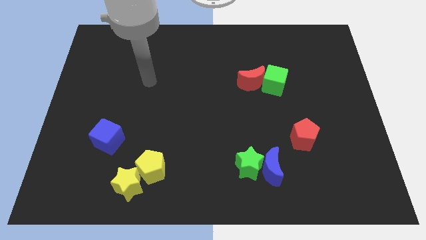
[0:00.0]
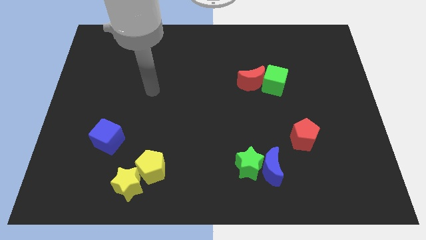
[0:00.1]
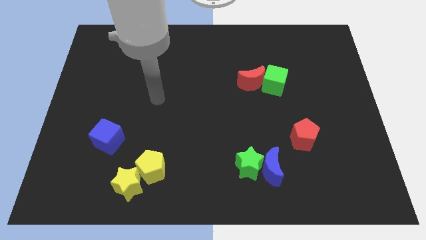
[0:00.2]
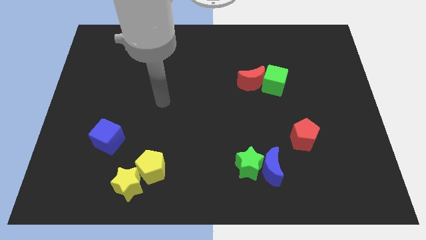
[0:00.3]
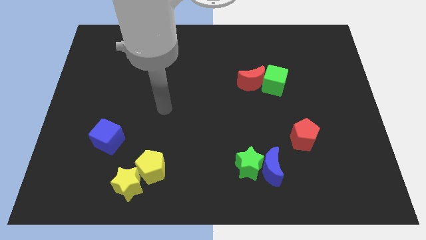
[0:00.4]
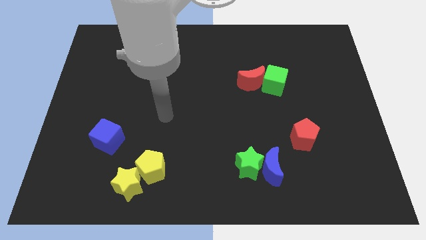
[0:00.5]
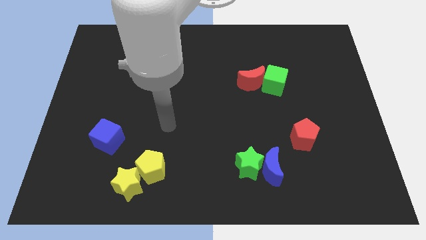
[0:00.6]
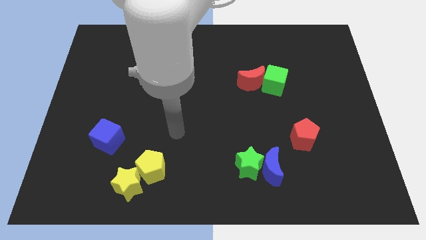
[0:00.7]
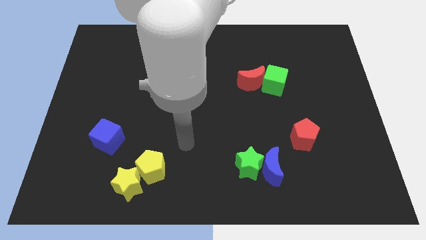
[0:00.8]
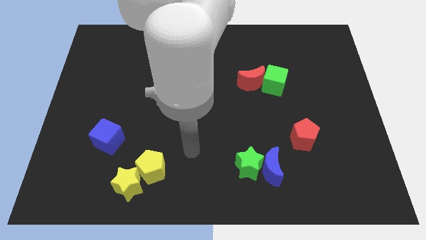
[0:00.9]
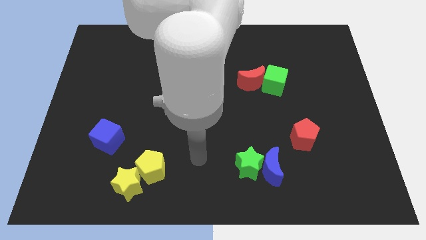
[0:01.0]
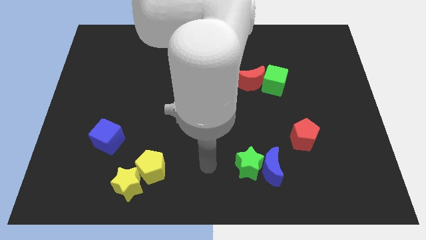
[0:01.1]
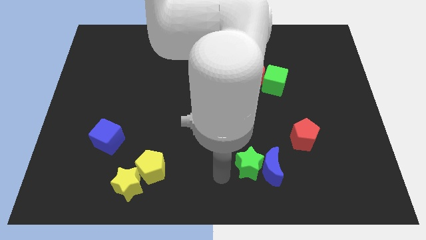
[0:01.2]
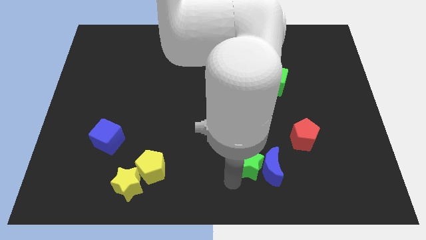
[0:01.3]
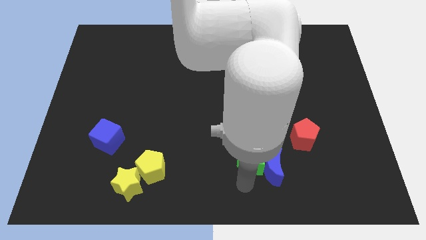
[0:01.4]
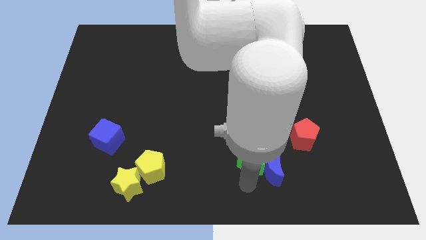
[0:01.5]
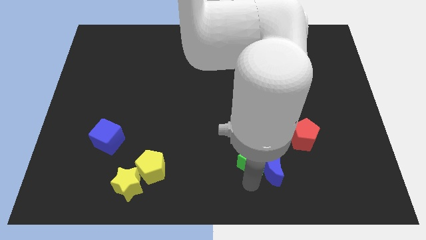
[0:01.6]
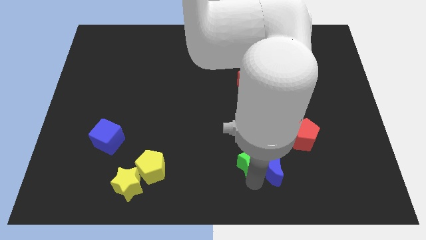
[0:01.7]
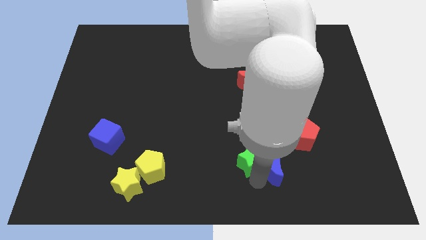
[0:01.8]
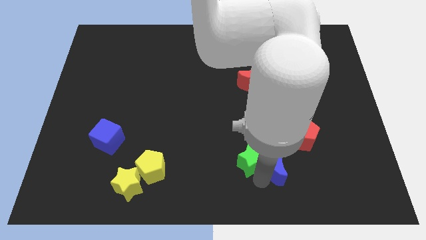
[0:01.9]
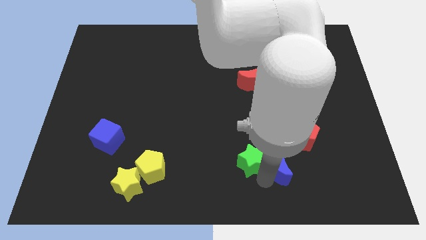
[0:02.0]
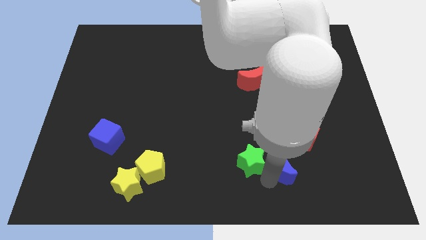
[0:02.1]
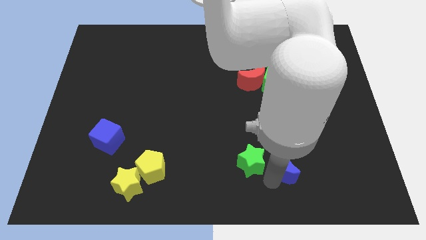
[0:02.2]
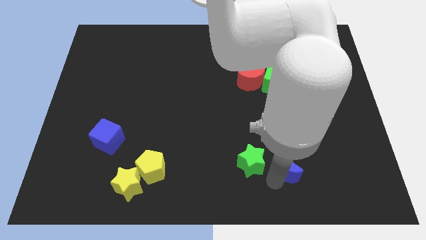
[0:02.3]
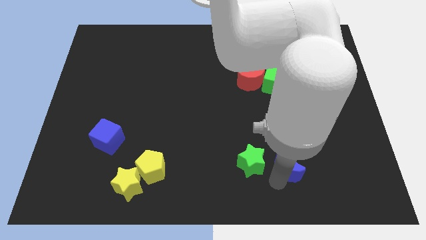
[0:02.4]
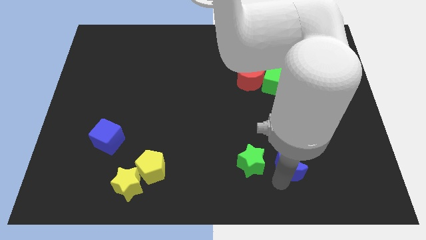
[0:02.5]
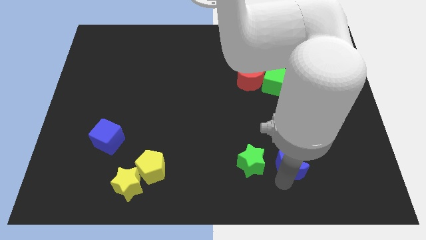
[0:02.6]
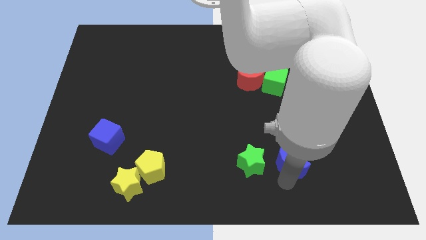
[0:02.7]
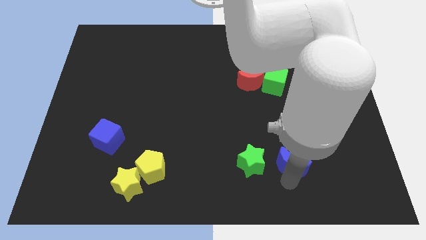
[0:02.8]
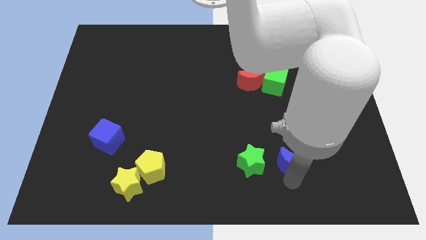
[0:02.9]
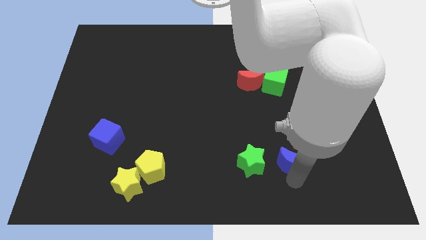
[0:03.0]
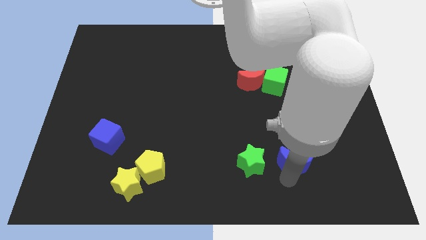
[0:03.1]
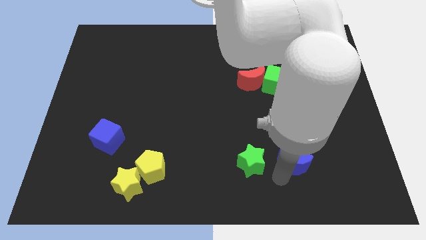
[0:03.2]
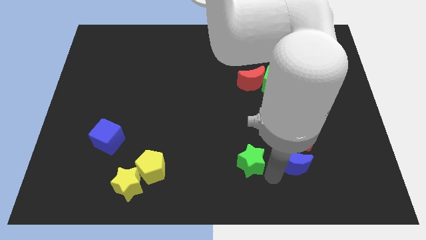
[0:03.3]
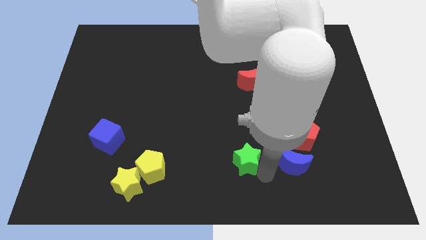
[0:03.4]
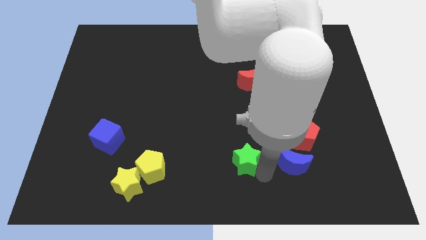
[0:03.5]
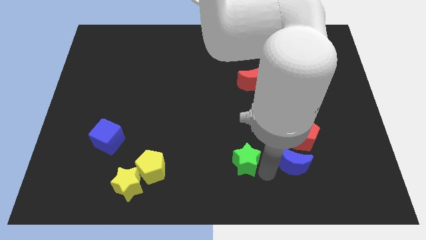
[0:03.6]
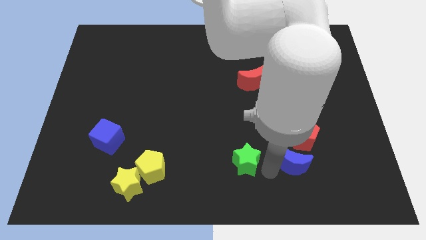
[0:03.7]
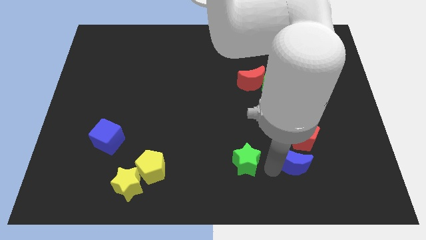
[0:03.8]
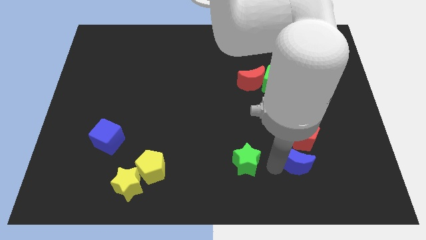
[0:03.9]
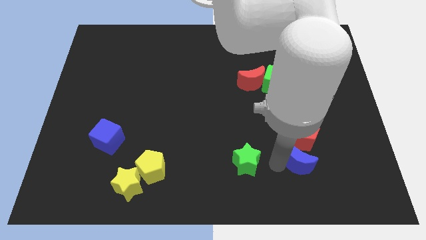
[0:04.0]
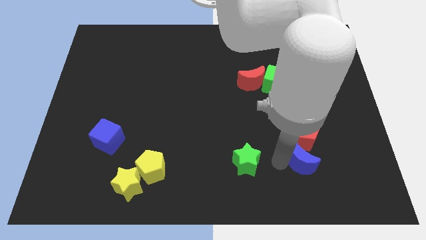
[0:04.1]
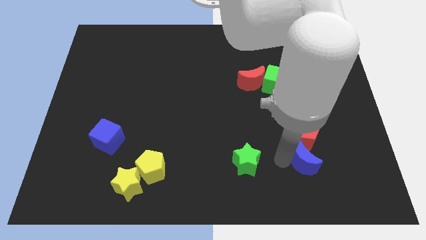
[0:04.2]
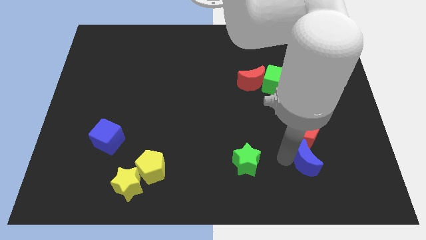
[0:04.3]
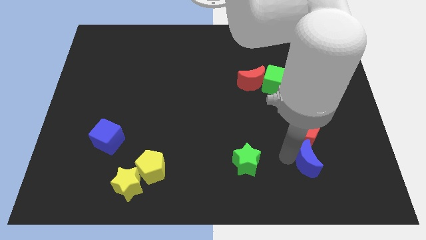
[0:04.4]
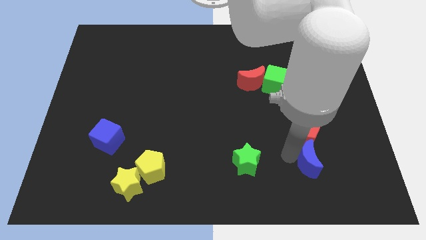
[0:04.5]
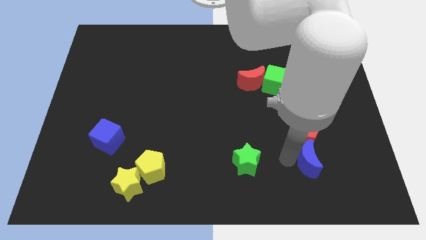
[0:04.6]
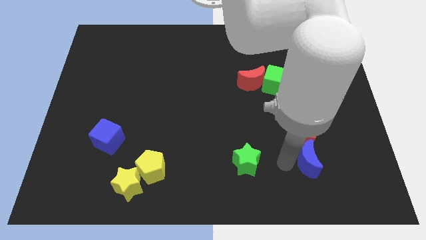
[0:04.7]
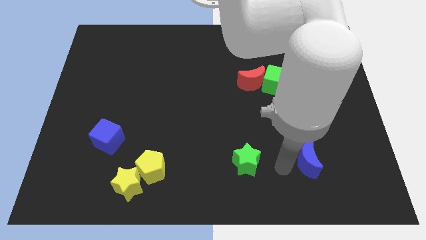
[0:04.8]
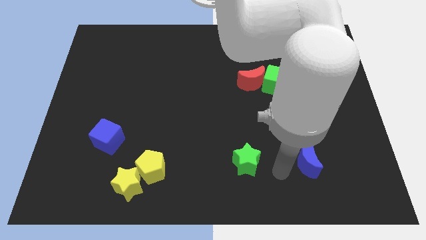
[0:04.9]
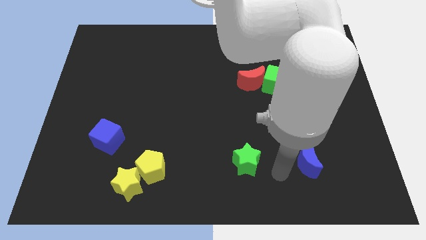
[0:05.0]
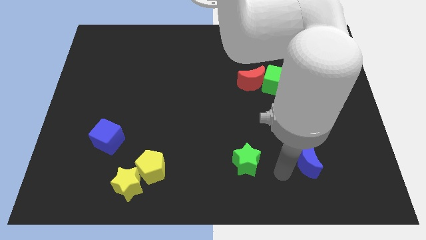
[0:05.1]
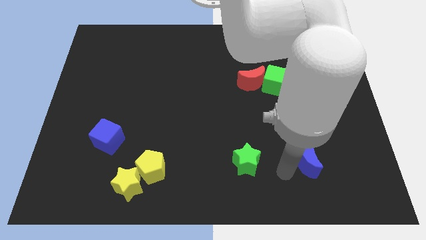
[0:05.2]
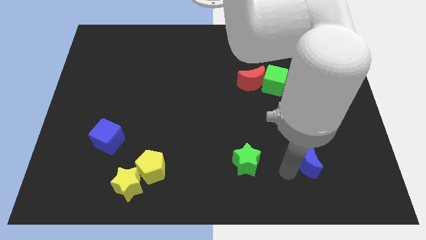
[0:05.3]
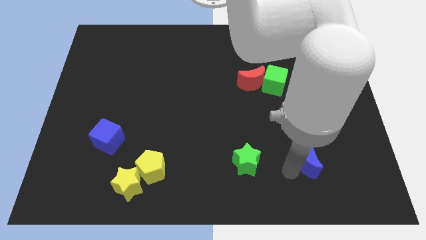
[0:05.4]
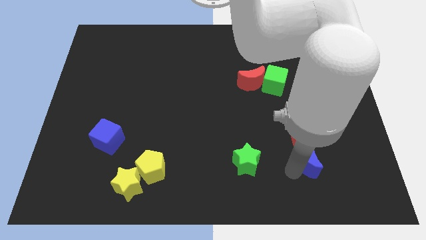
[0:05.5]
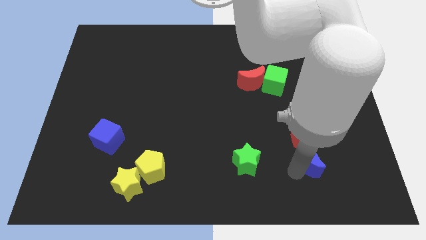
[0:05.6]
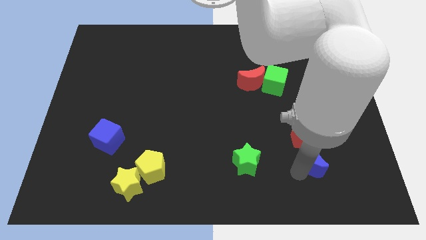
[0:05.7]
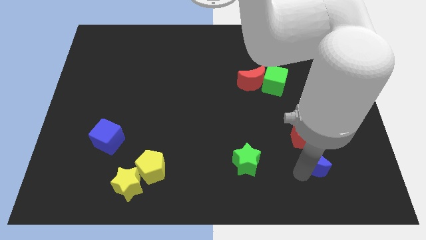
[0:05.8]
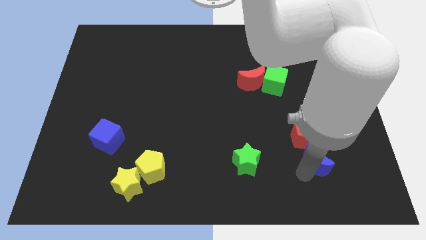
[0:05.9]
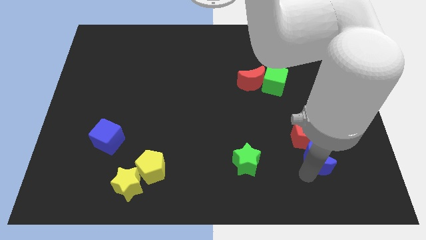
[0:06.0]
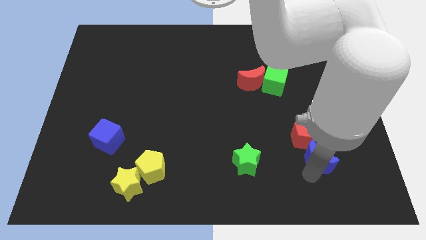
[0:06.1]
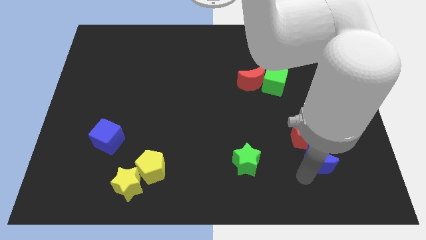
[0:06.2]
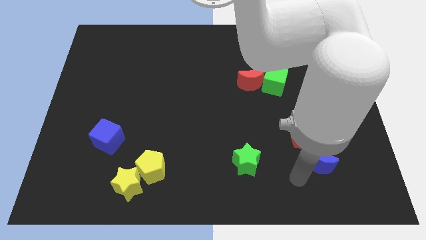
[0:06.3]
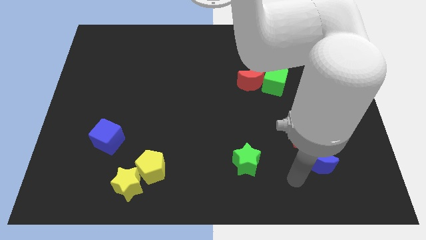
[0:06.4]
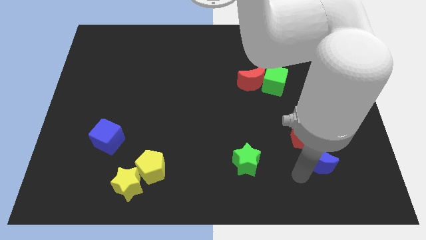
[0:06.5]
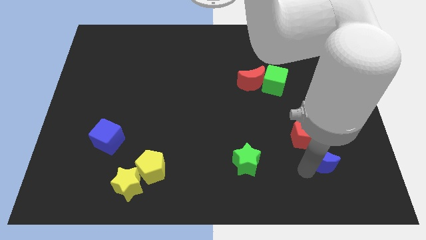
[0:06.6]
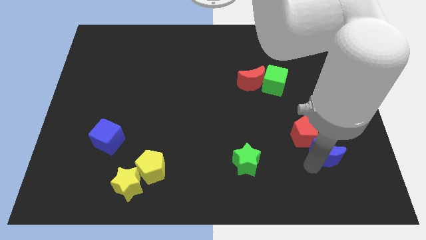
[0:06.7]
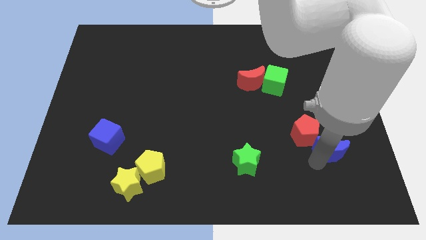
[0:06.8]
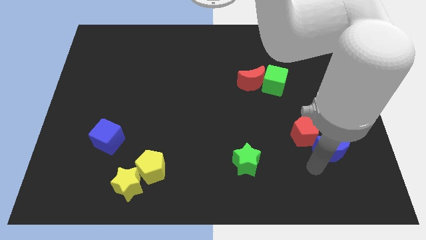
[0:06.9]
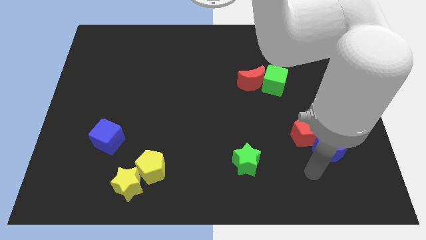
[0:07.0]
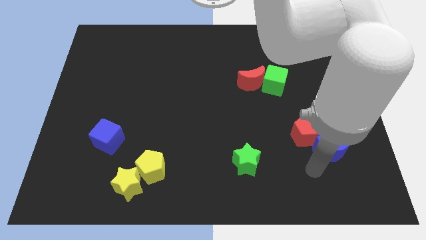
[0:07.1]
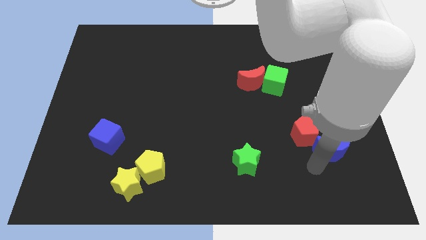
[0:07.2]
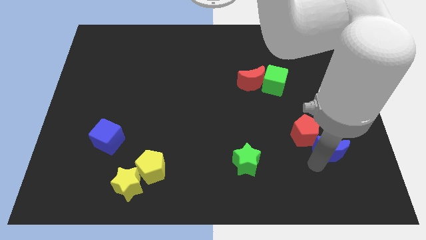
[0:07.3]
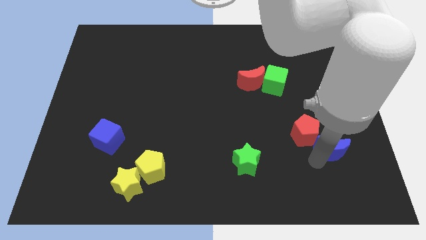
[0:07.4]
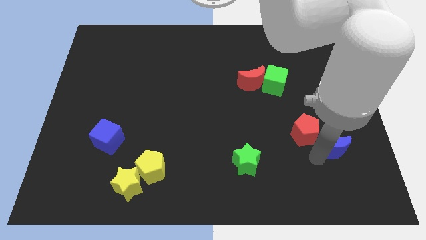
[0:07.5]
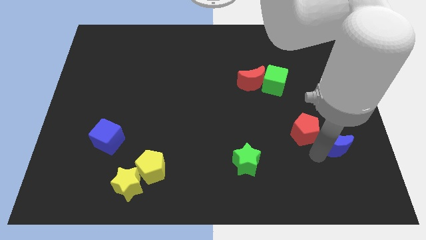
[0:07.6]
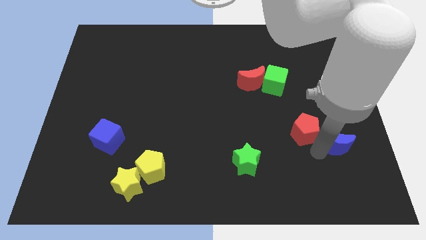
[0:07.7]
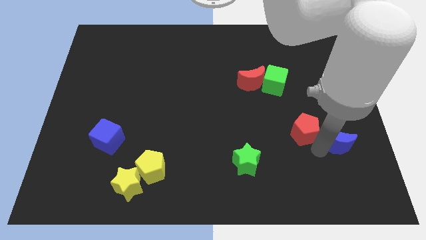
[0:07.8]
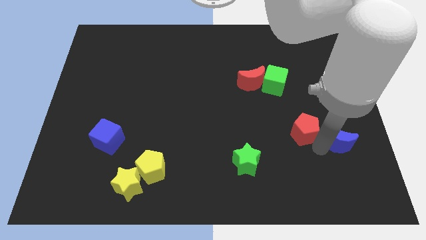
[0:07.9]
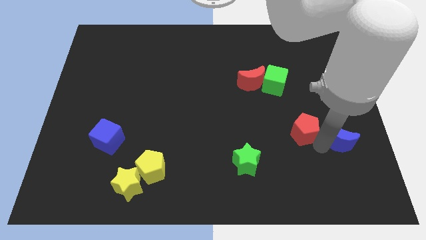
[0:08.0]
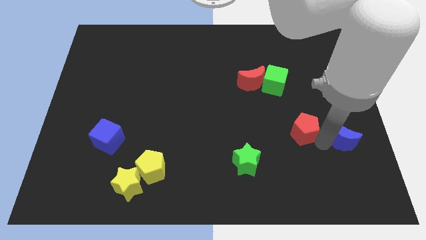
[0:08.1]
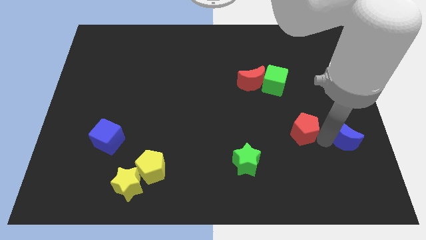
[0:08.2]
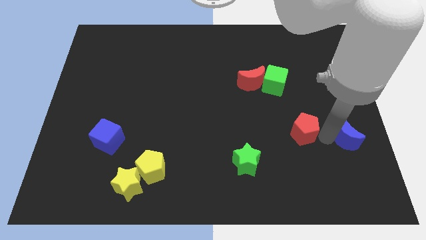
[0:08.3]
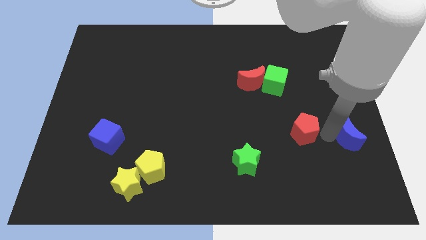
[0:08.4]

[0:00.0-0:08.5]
move the blue moon to the right side of the board
